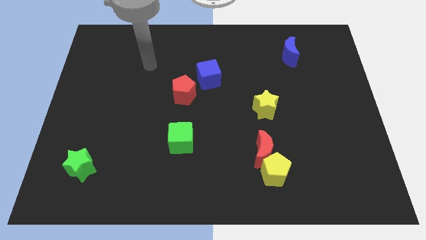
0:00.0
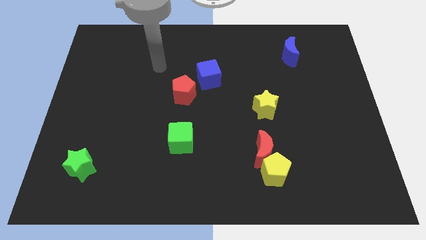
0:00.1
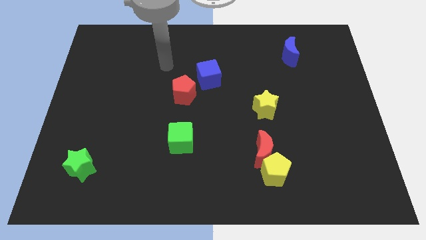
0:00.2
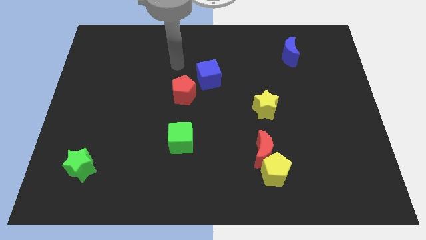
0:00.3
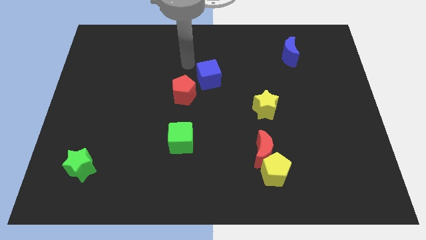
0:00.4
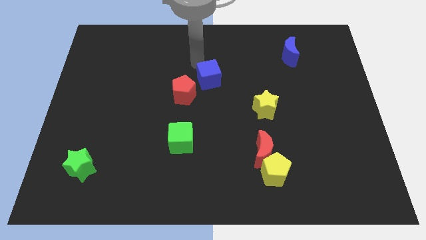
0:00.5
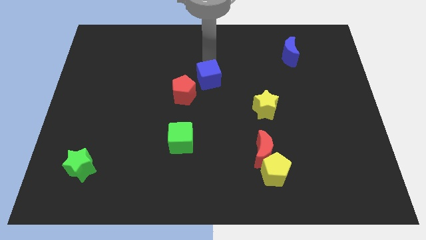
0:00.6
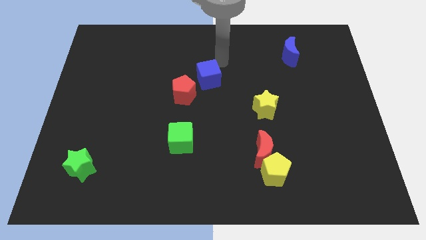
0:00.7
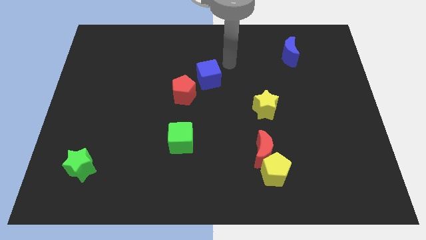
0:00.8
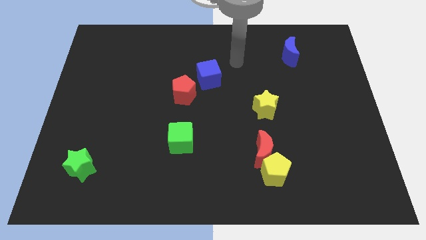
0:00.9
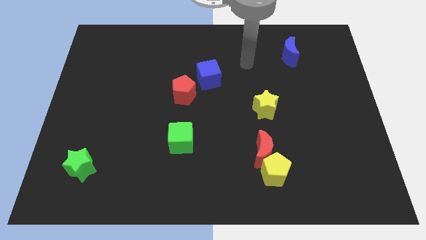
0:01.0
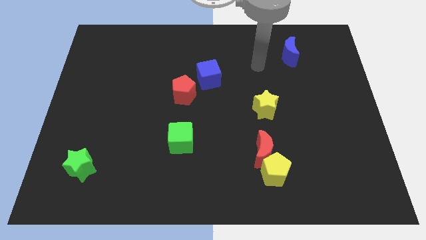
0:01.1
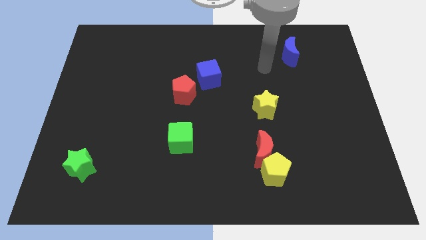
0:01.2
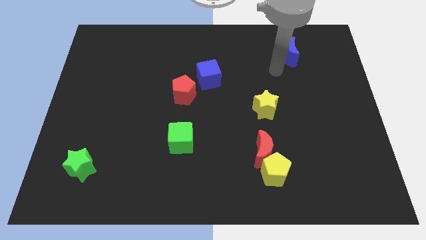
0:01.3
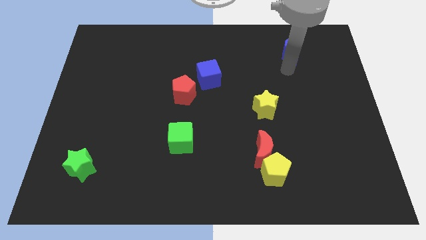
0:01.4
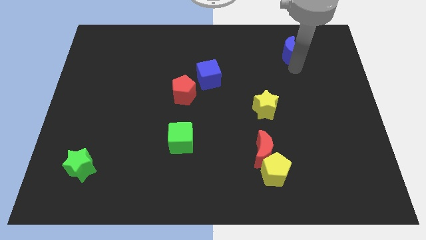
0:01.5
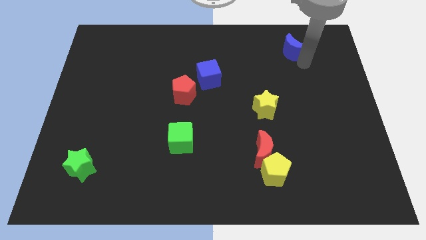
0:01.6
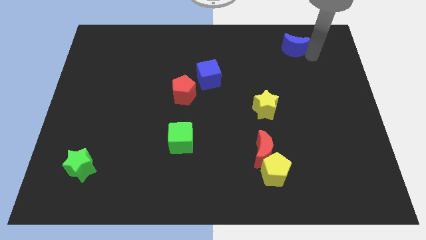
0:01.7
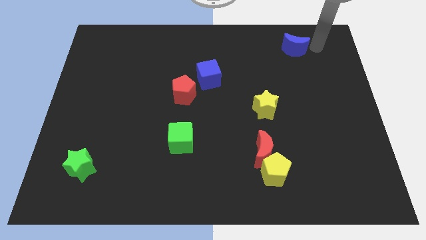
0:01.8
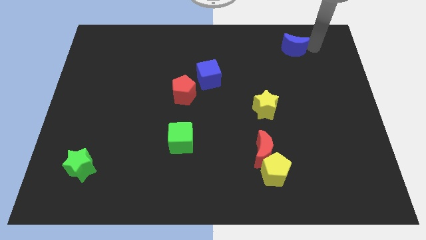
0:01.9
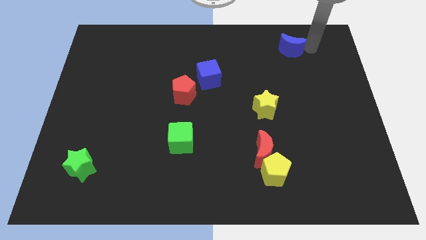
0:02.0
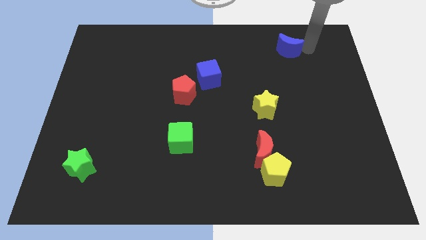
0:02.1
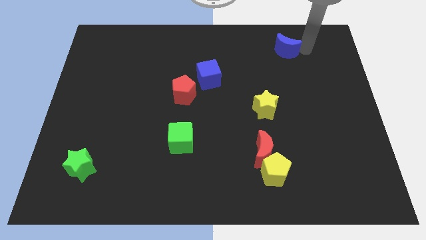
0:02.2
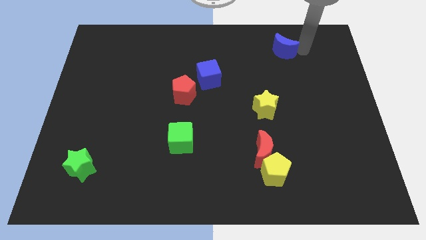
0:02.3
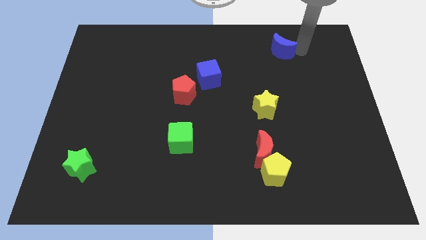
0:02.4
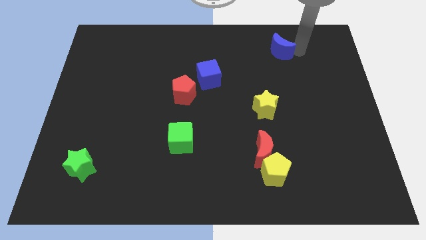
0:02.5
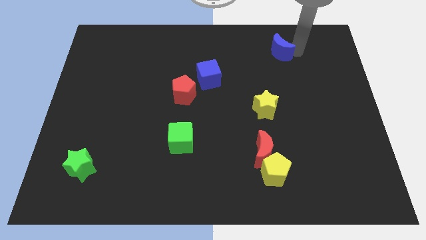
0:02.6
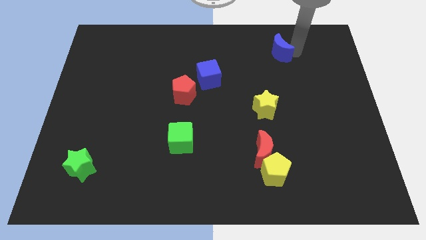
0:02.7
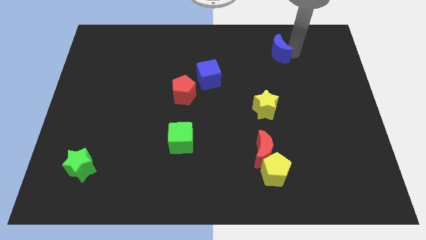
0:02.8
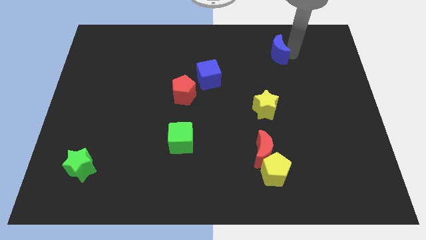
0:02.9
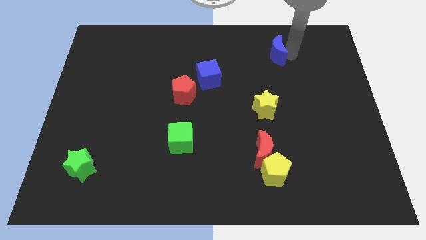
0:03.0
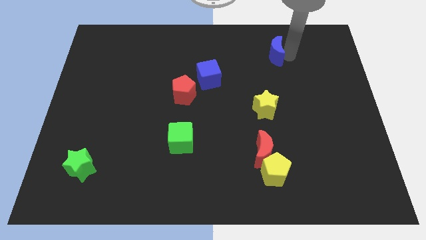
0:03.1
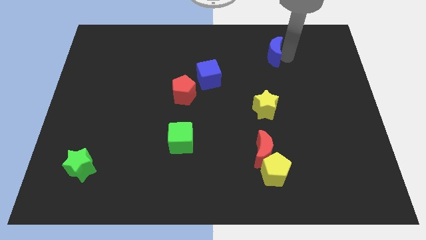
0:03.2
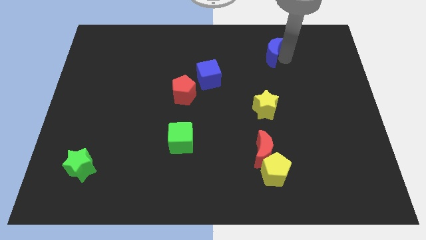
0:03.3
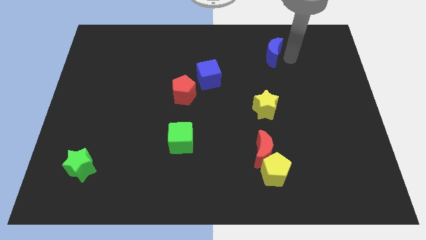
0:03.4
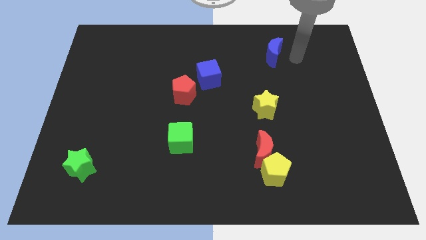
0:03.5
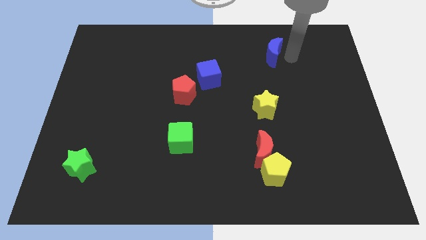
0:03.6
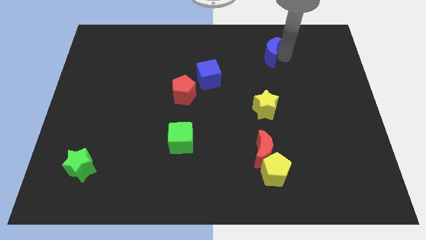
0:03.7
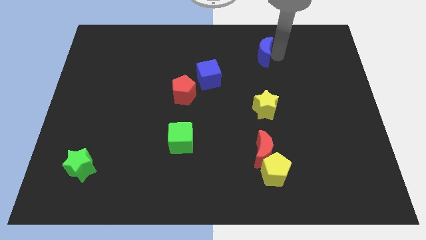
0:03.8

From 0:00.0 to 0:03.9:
push the blue moon left a little

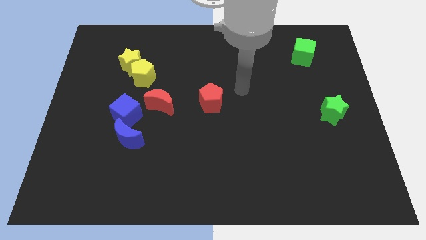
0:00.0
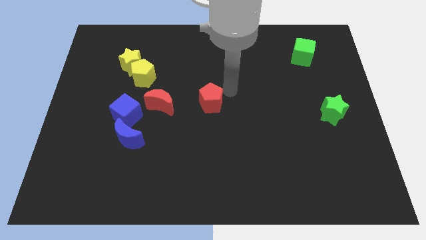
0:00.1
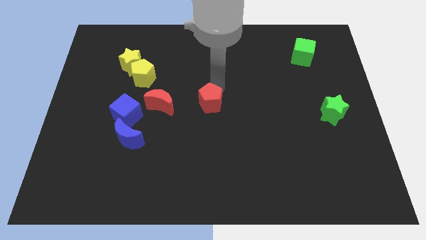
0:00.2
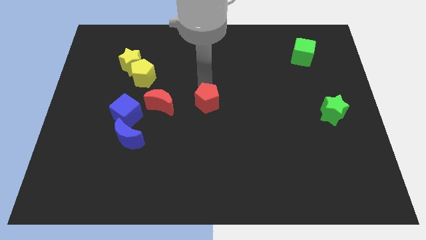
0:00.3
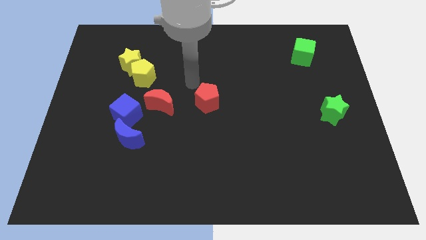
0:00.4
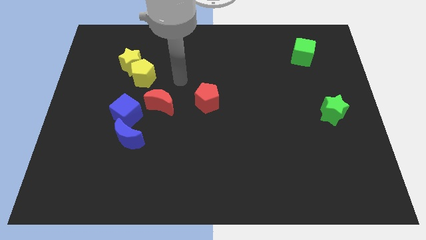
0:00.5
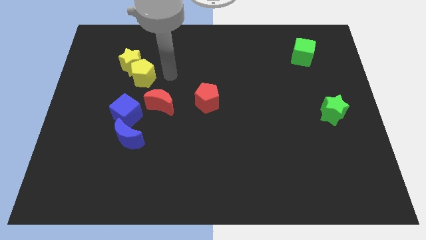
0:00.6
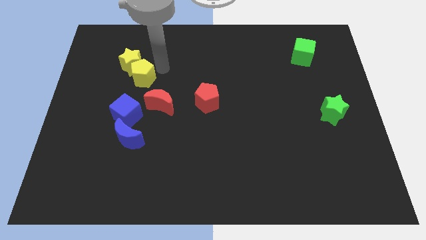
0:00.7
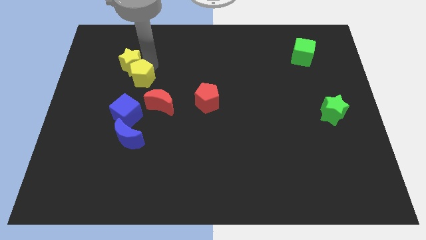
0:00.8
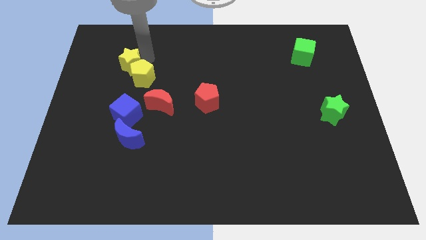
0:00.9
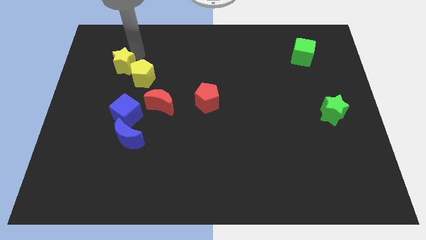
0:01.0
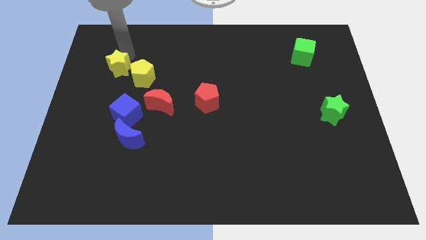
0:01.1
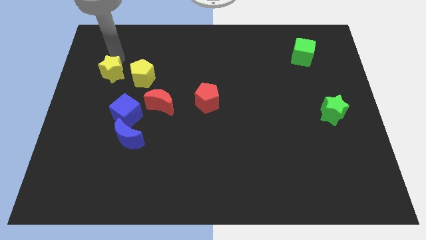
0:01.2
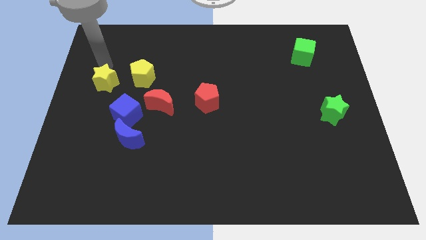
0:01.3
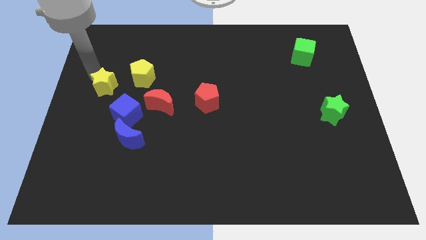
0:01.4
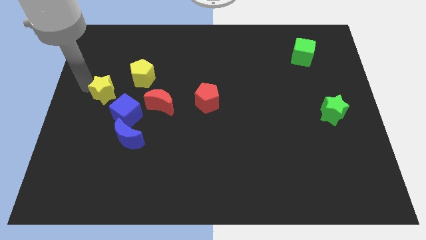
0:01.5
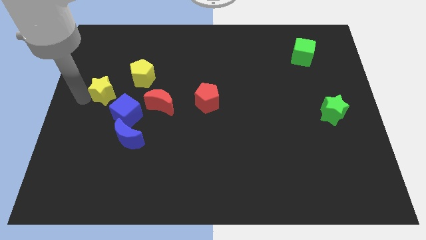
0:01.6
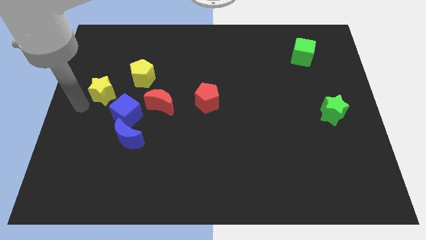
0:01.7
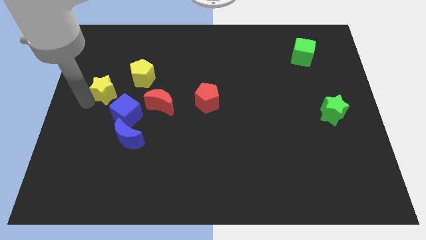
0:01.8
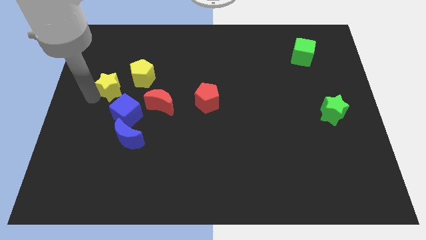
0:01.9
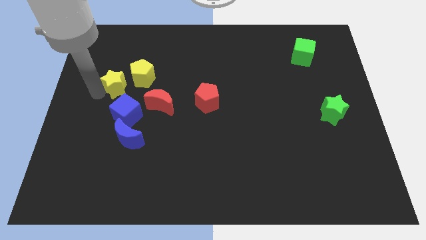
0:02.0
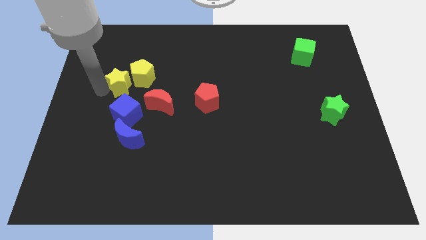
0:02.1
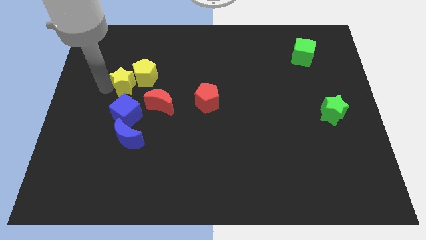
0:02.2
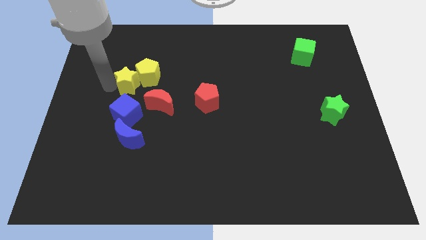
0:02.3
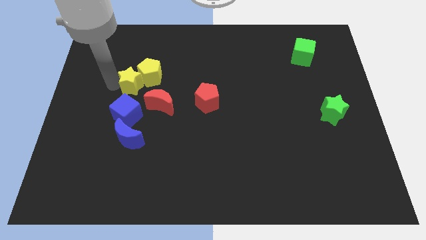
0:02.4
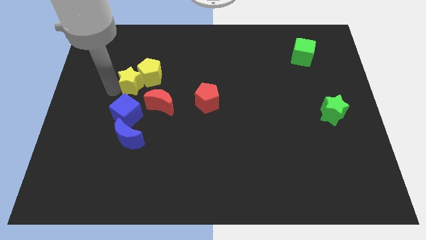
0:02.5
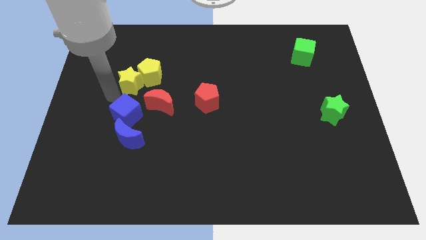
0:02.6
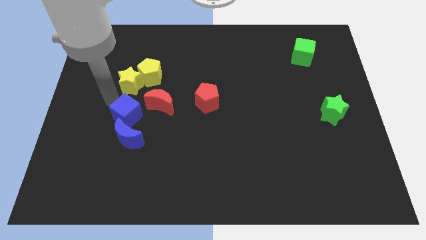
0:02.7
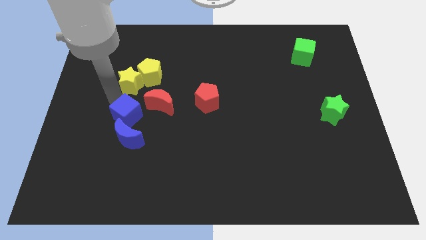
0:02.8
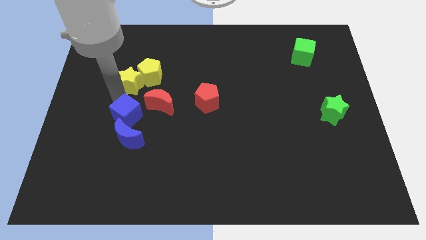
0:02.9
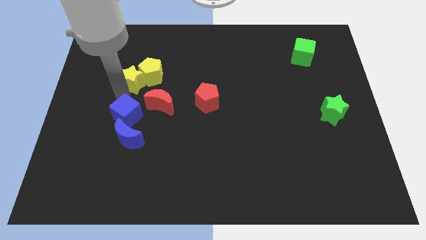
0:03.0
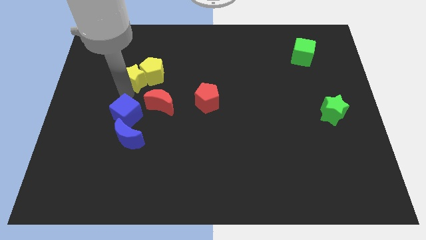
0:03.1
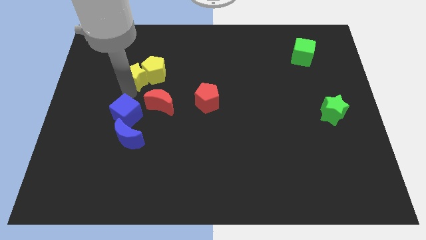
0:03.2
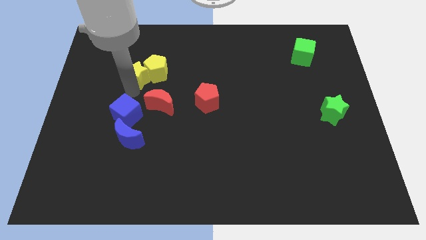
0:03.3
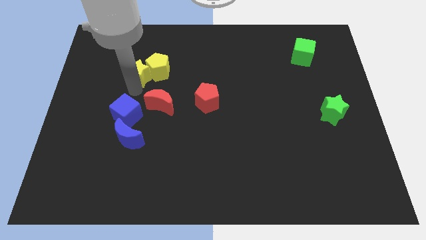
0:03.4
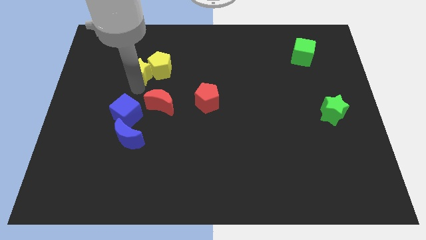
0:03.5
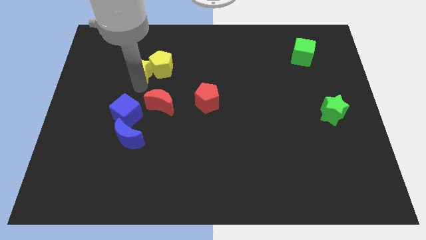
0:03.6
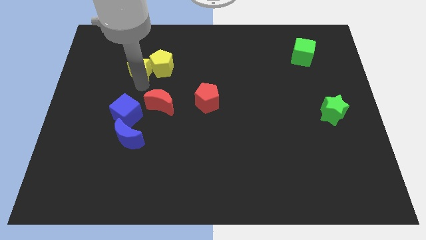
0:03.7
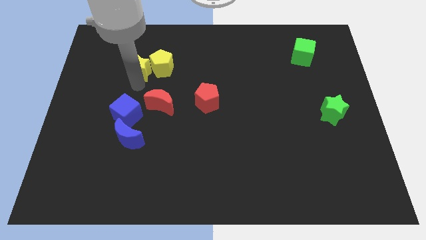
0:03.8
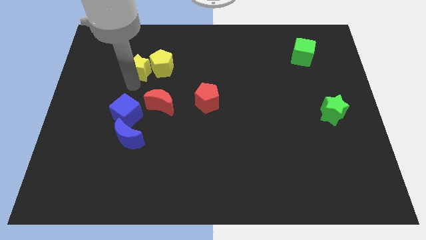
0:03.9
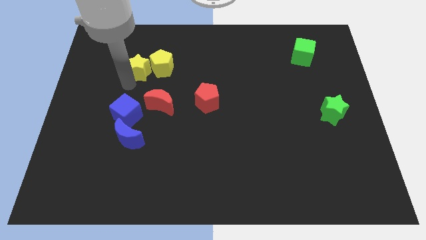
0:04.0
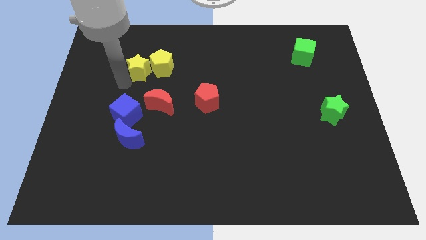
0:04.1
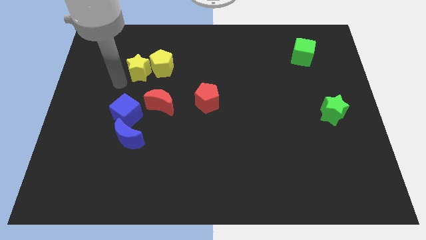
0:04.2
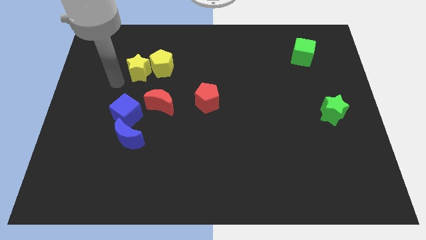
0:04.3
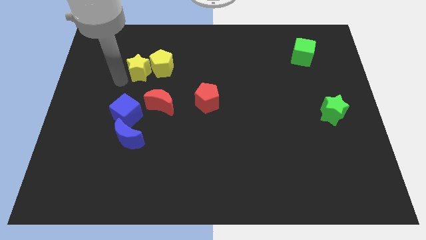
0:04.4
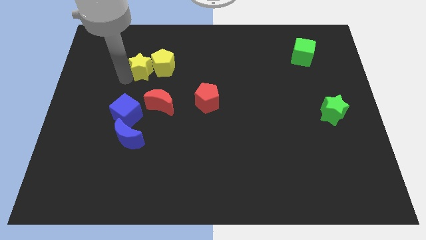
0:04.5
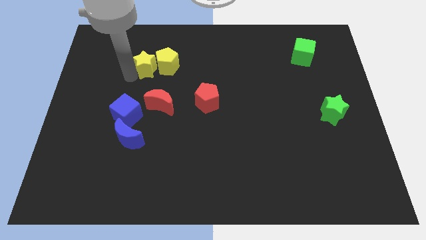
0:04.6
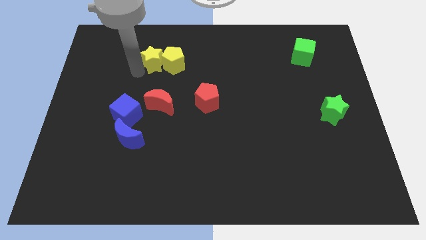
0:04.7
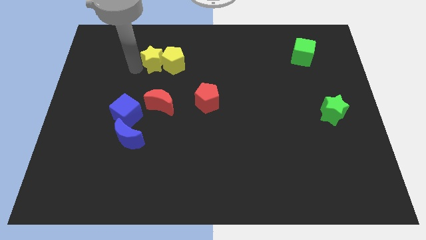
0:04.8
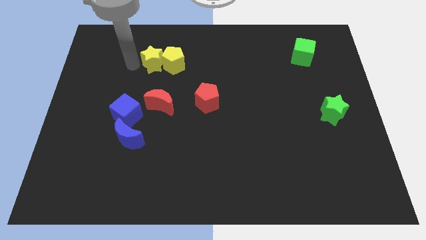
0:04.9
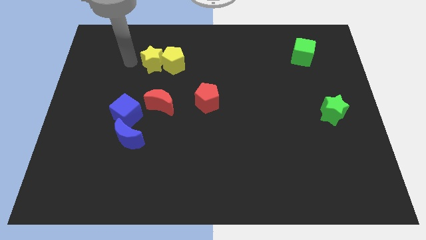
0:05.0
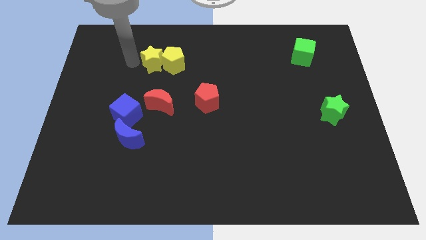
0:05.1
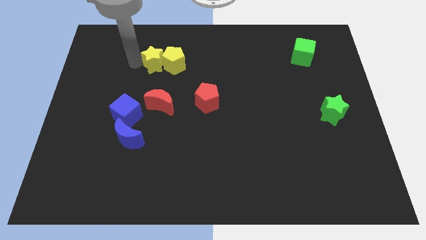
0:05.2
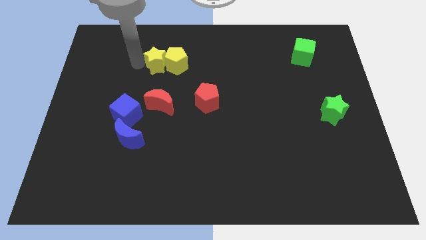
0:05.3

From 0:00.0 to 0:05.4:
move the yellow star slightly right
